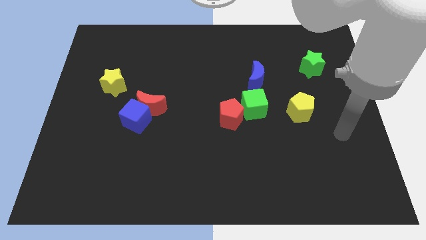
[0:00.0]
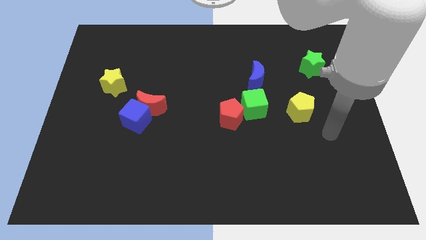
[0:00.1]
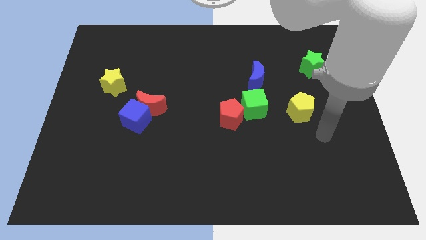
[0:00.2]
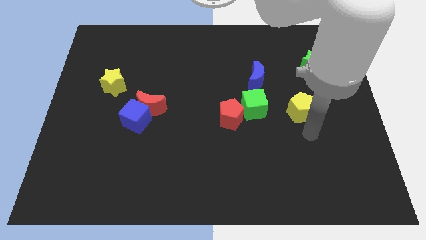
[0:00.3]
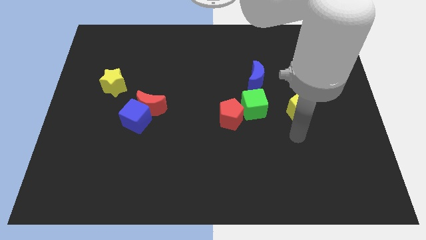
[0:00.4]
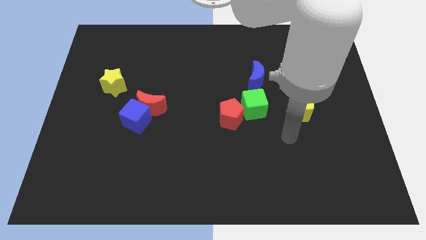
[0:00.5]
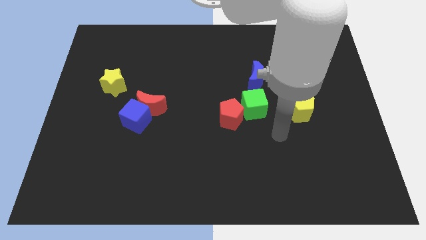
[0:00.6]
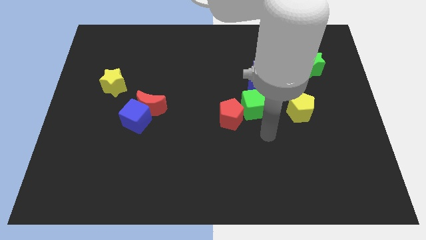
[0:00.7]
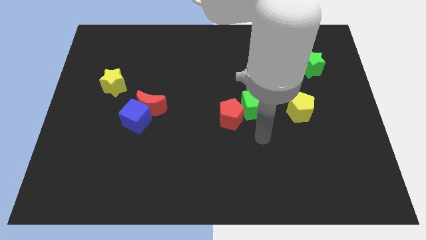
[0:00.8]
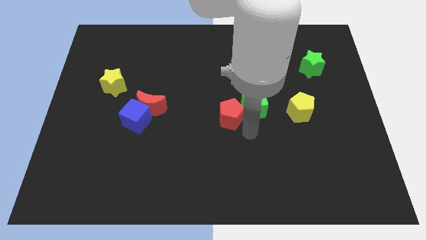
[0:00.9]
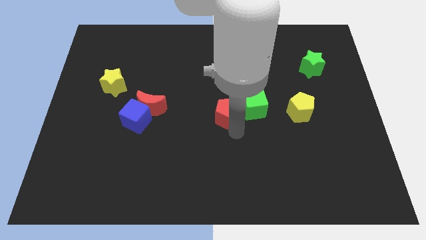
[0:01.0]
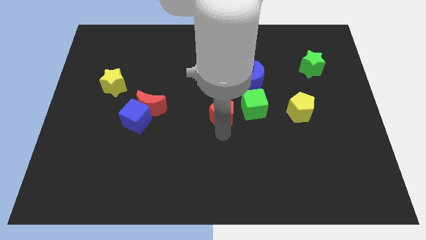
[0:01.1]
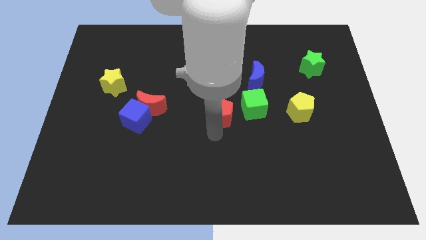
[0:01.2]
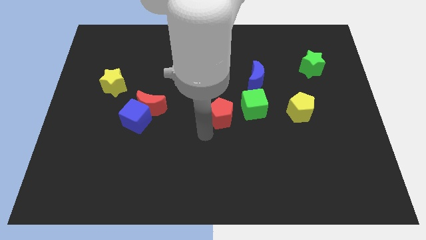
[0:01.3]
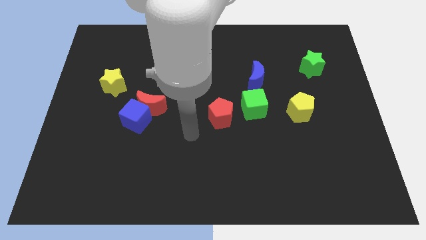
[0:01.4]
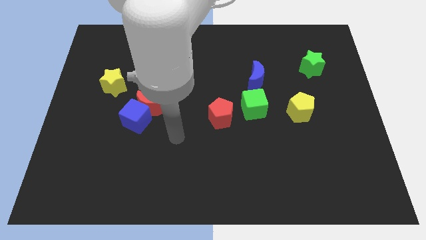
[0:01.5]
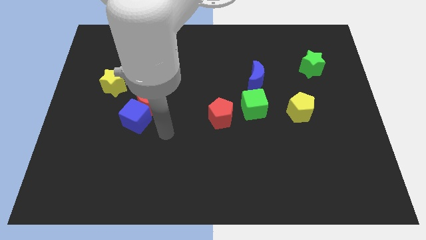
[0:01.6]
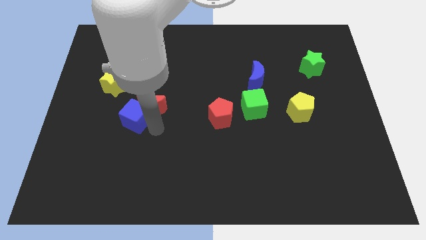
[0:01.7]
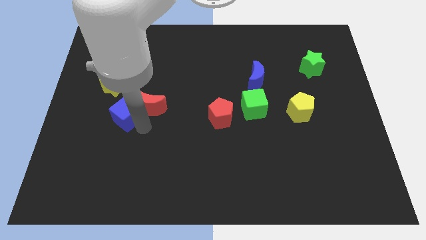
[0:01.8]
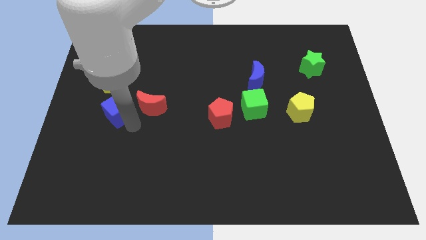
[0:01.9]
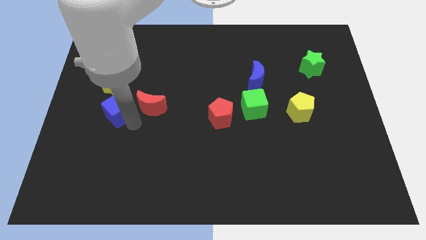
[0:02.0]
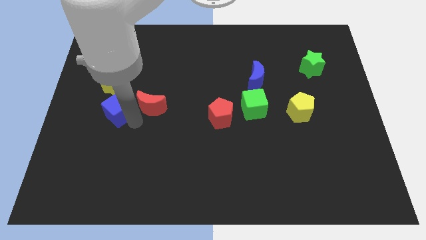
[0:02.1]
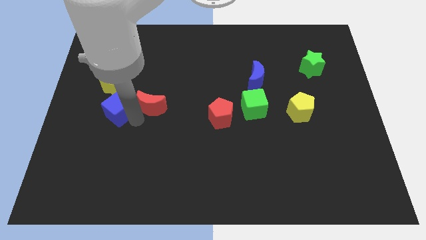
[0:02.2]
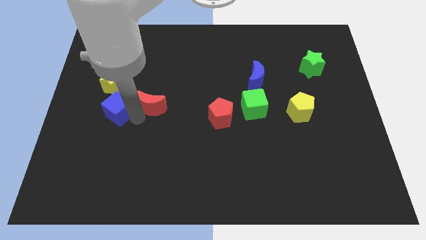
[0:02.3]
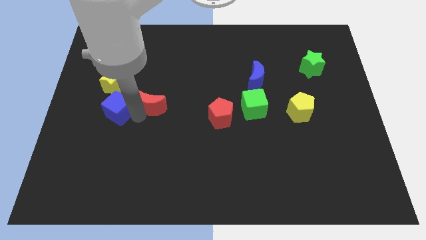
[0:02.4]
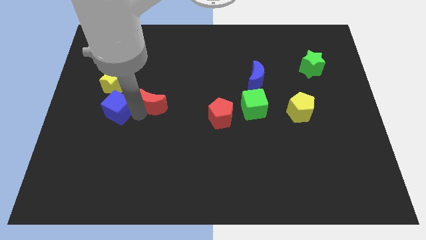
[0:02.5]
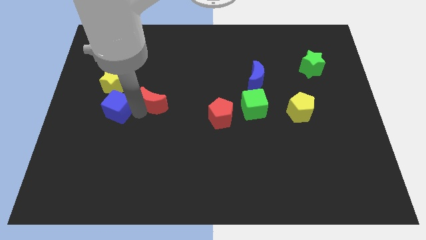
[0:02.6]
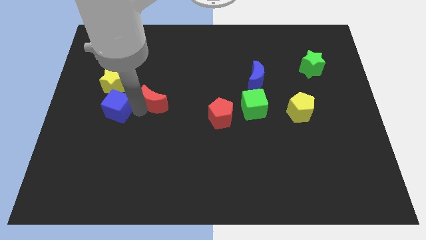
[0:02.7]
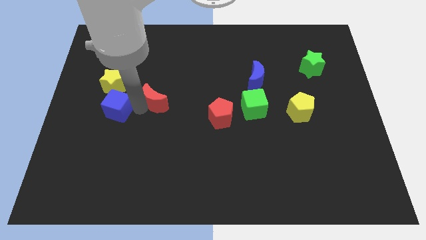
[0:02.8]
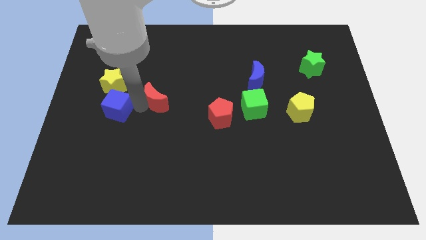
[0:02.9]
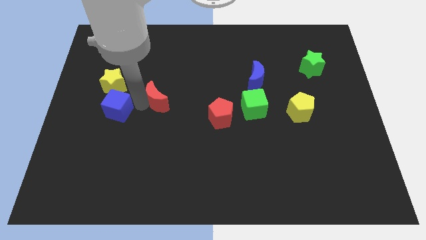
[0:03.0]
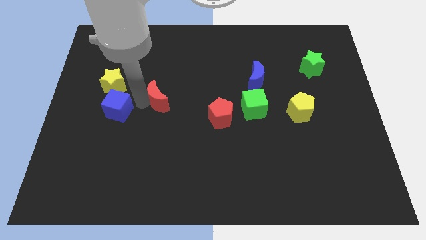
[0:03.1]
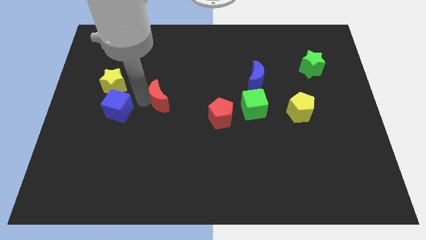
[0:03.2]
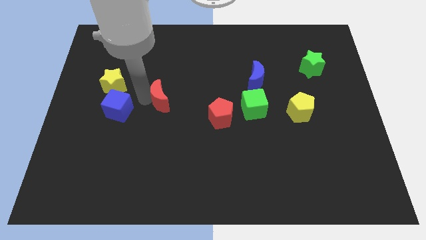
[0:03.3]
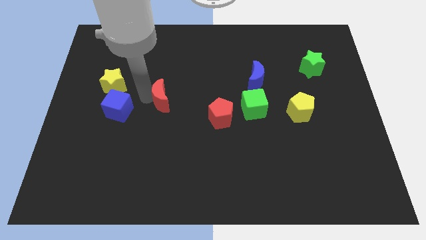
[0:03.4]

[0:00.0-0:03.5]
separate the red moon from the blue cube

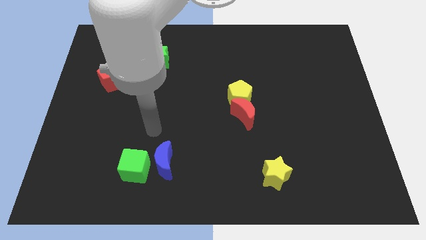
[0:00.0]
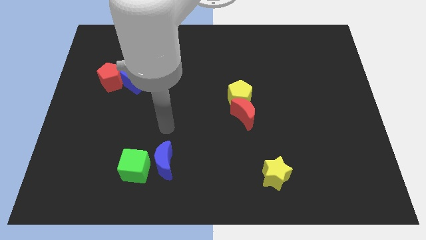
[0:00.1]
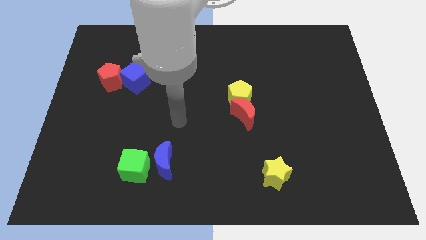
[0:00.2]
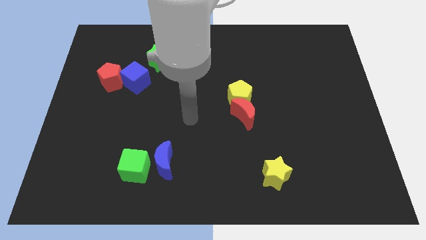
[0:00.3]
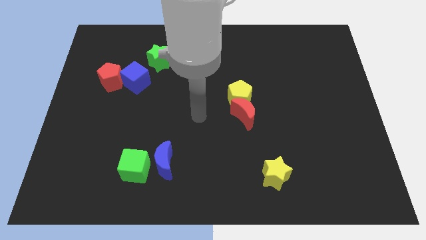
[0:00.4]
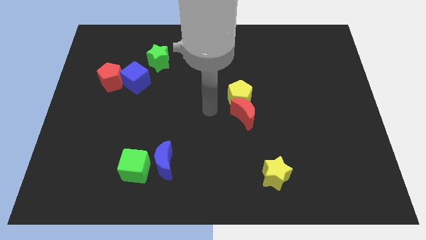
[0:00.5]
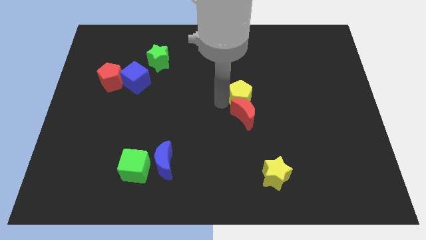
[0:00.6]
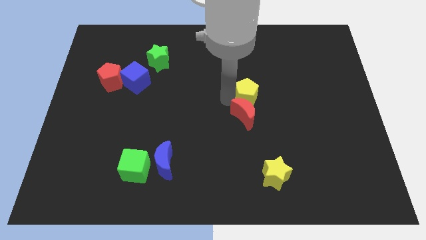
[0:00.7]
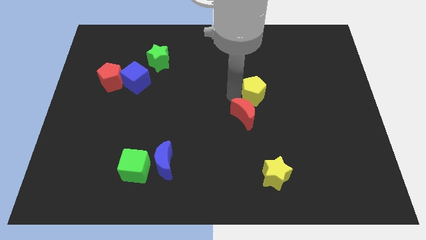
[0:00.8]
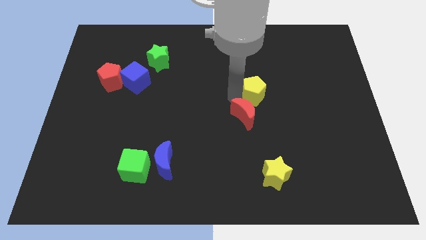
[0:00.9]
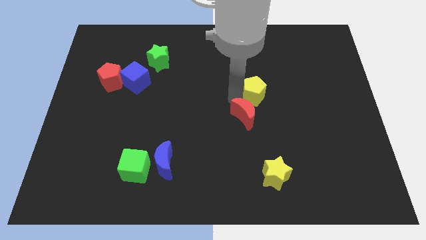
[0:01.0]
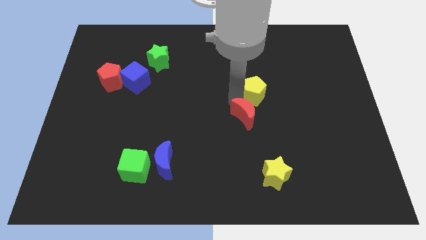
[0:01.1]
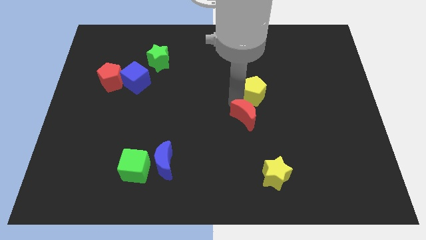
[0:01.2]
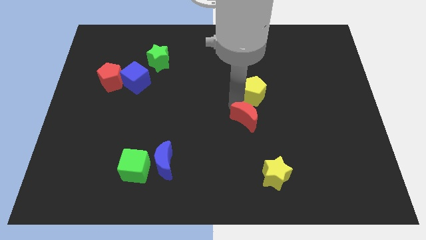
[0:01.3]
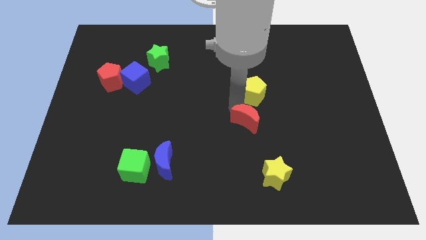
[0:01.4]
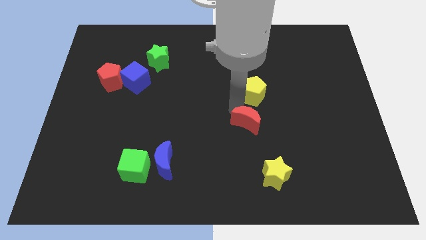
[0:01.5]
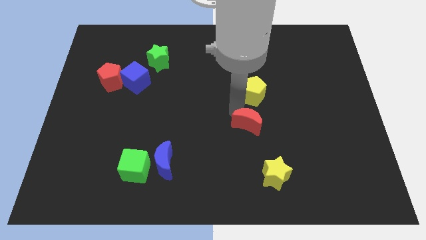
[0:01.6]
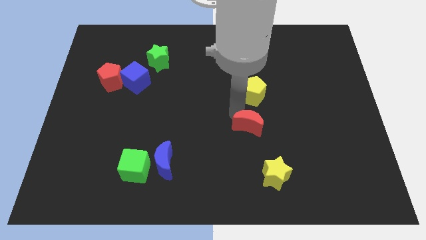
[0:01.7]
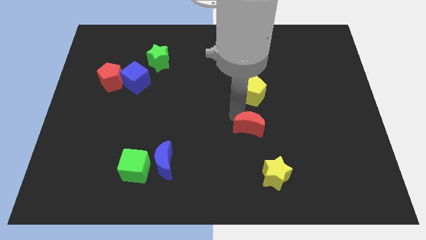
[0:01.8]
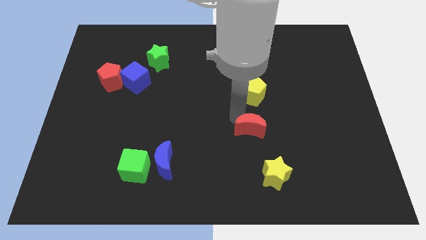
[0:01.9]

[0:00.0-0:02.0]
move the red moon away from the yellow pentagon

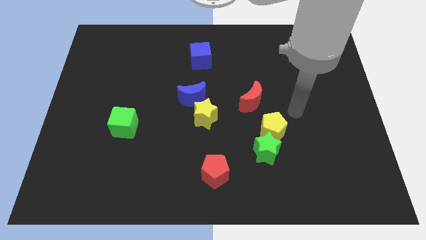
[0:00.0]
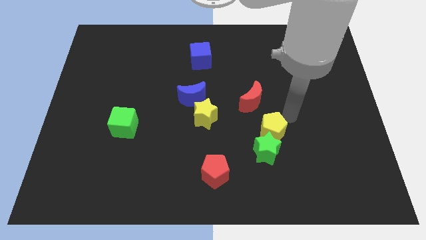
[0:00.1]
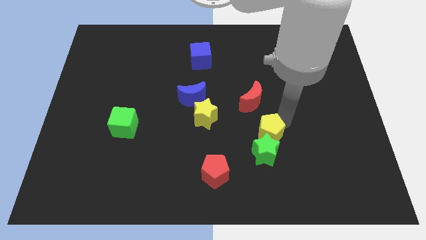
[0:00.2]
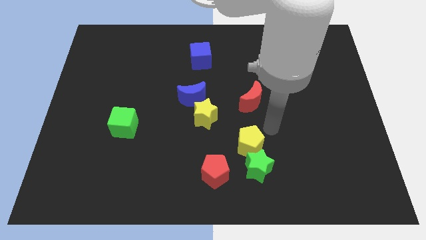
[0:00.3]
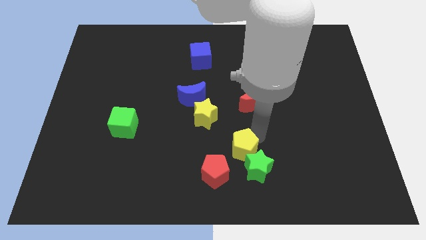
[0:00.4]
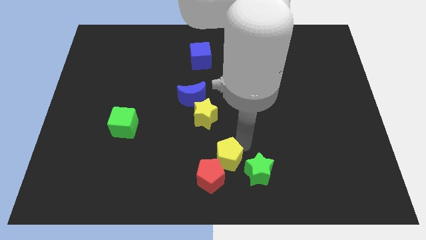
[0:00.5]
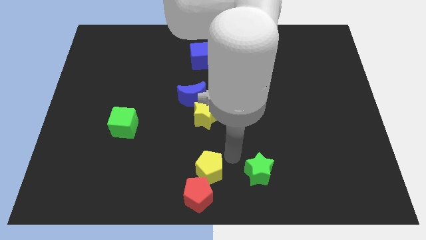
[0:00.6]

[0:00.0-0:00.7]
separate the green star from the yellow pentagon

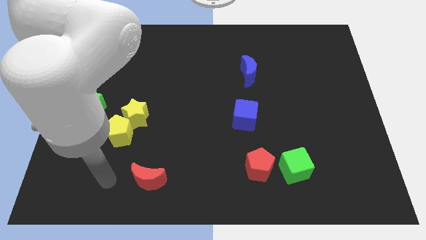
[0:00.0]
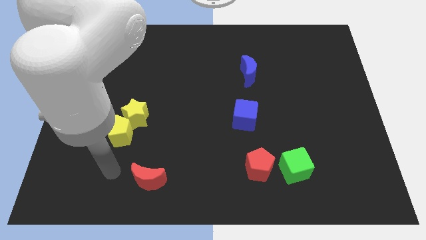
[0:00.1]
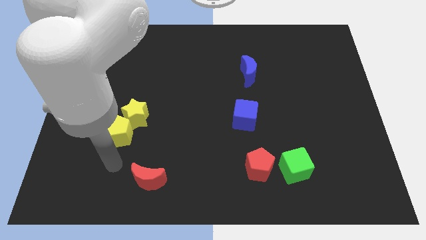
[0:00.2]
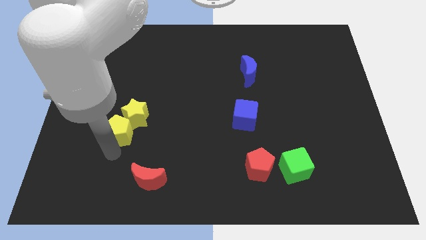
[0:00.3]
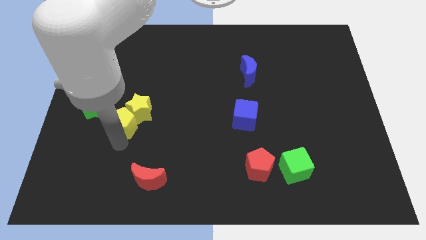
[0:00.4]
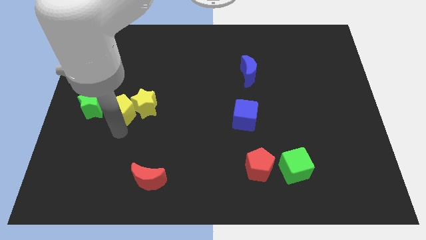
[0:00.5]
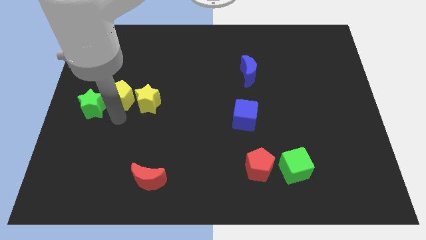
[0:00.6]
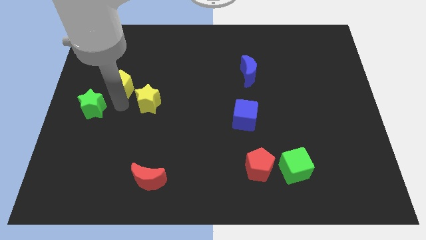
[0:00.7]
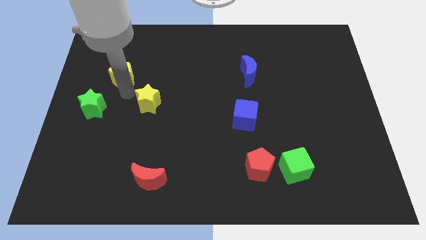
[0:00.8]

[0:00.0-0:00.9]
pull the yellow star apart from the yellow pentagon

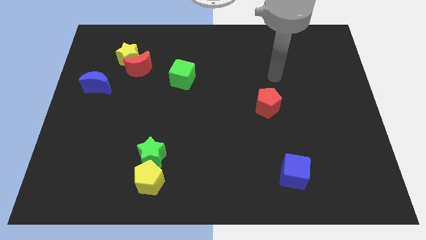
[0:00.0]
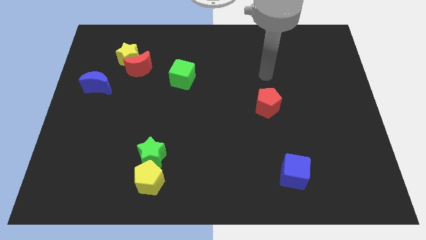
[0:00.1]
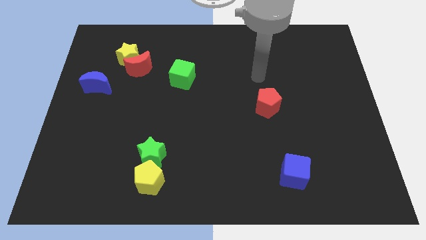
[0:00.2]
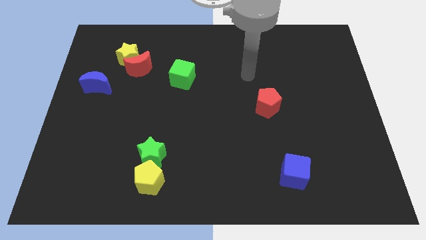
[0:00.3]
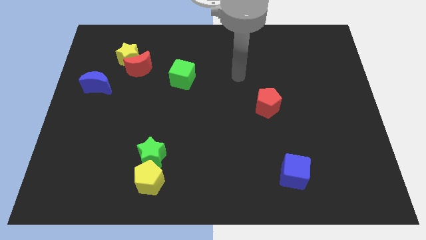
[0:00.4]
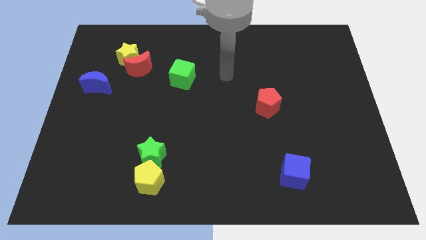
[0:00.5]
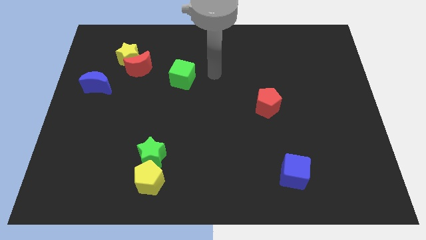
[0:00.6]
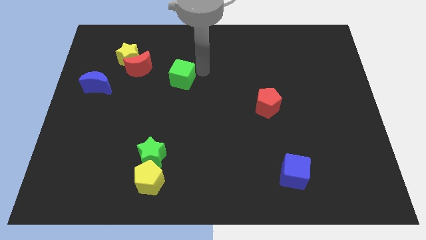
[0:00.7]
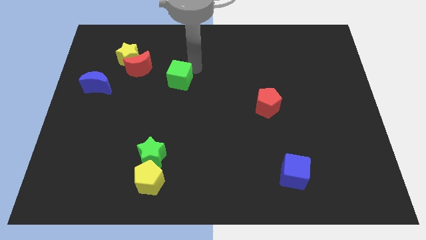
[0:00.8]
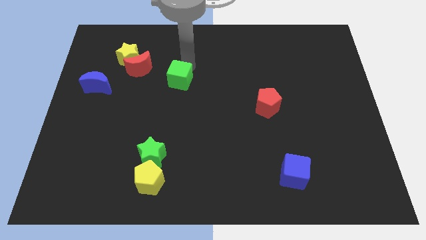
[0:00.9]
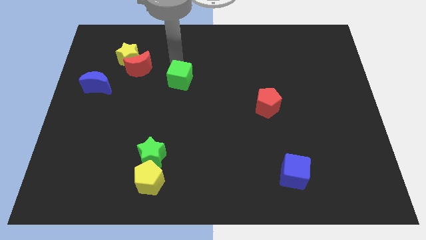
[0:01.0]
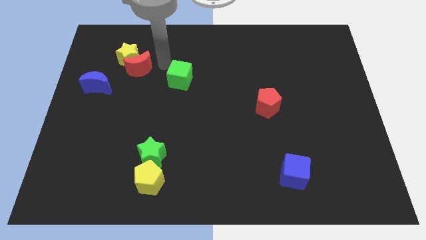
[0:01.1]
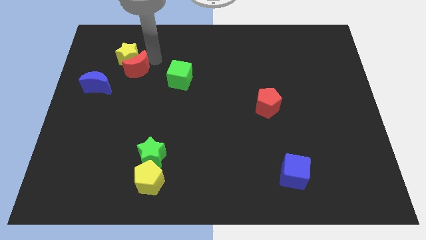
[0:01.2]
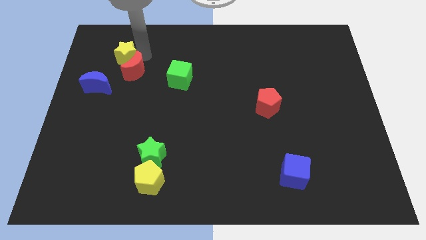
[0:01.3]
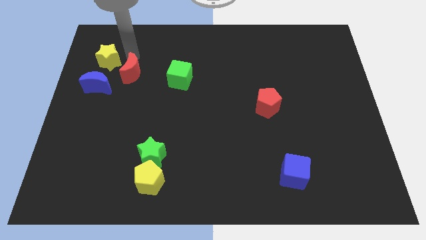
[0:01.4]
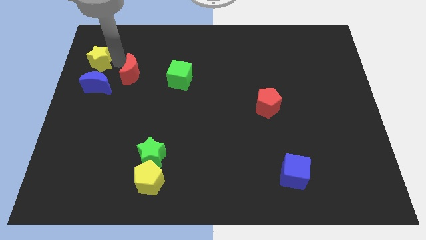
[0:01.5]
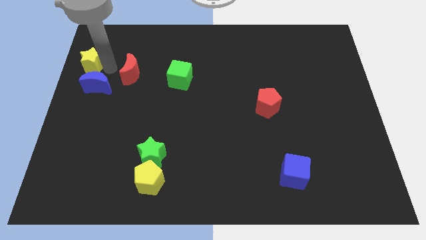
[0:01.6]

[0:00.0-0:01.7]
separate the red moon from the yellow star

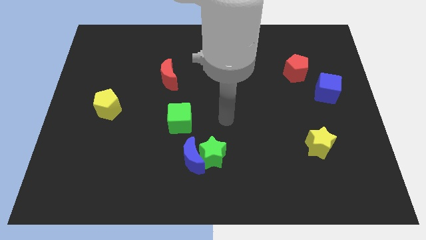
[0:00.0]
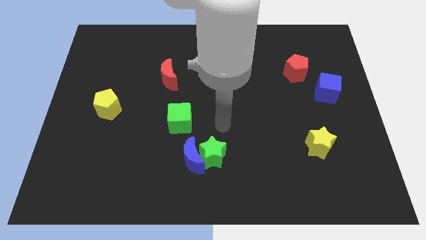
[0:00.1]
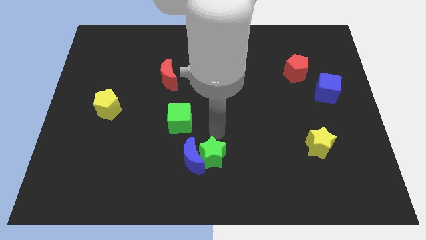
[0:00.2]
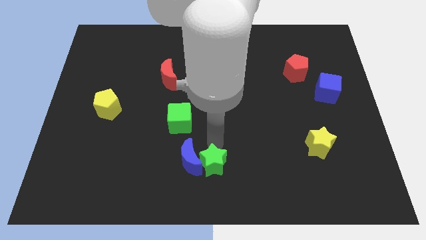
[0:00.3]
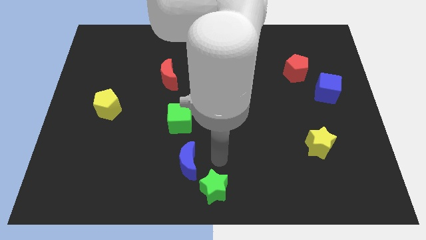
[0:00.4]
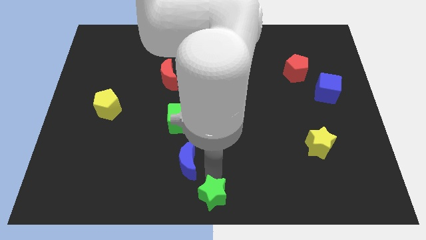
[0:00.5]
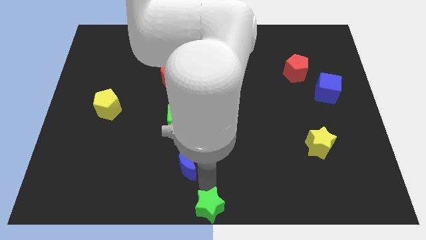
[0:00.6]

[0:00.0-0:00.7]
pull the blue moon apart from the green star
